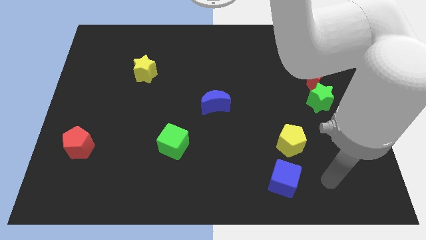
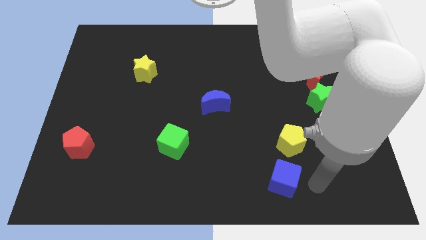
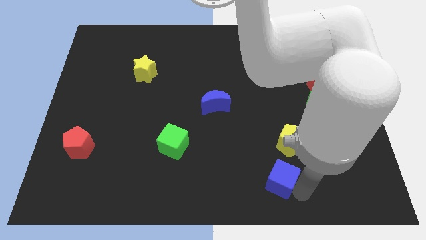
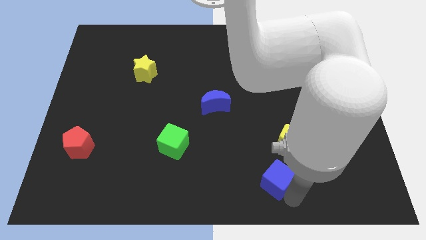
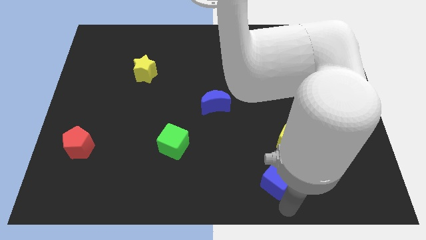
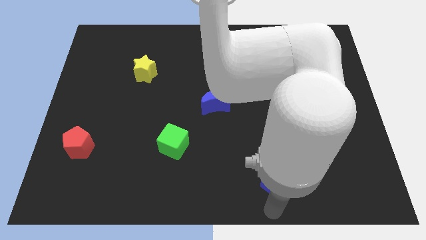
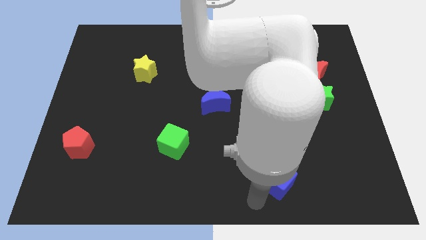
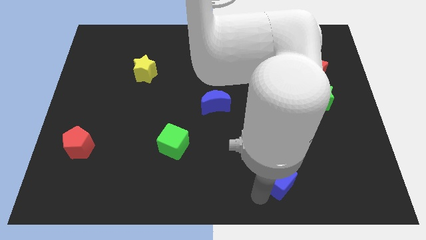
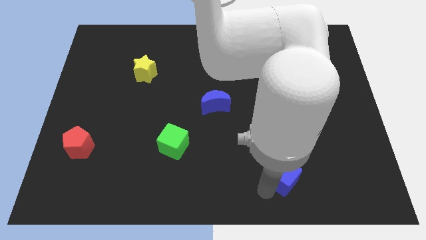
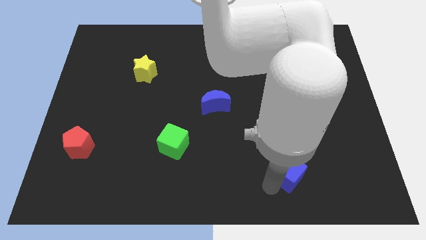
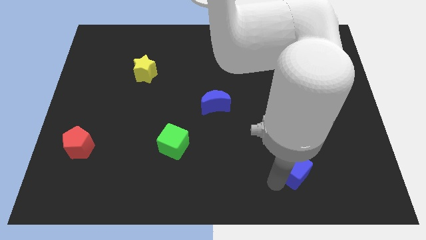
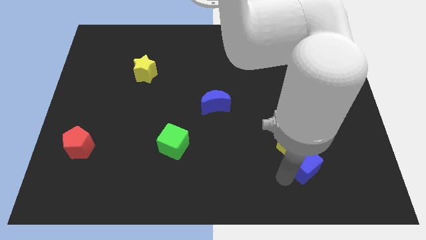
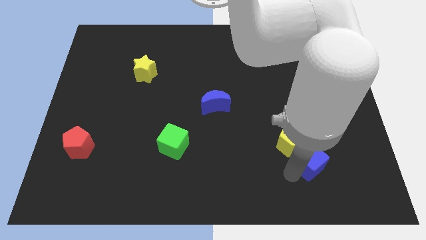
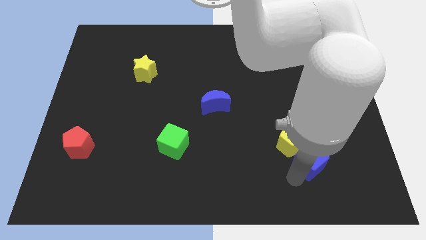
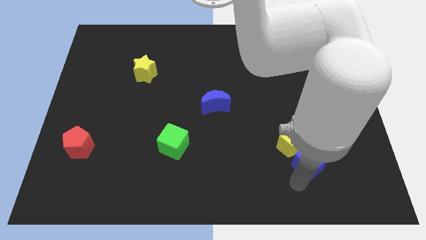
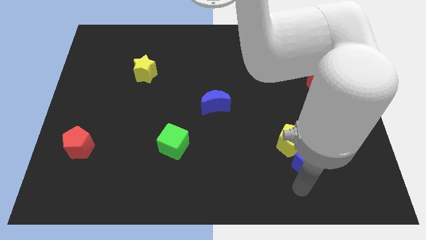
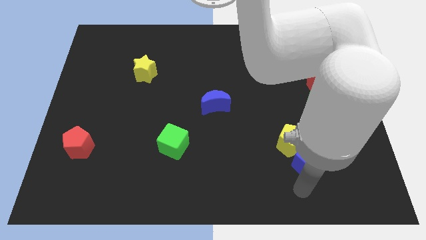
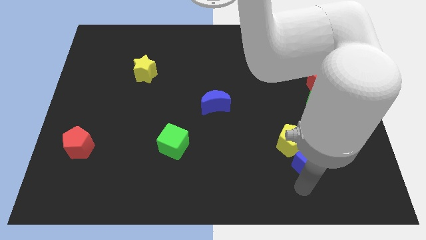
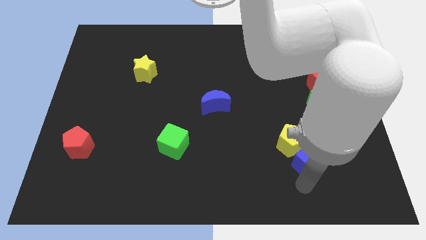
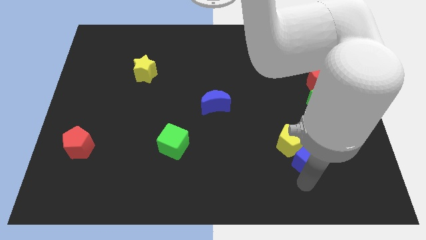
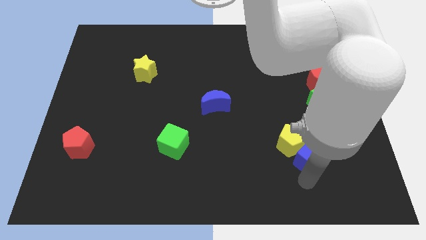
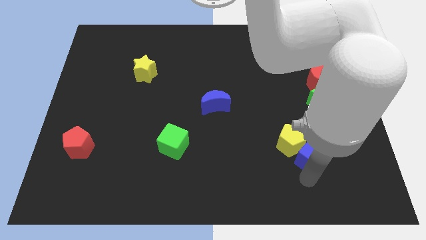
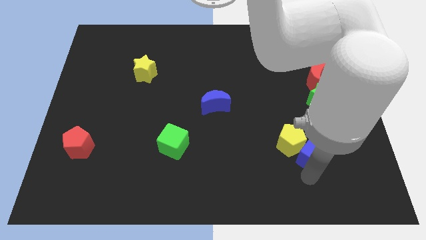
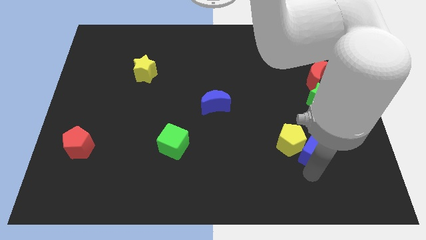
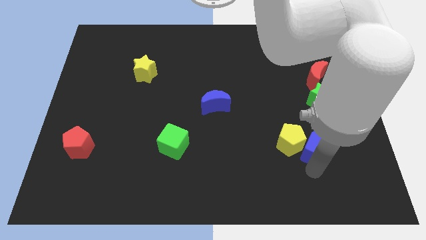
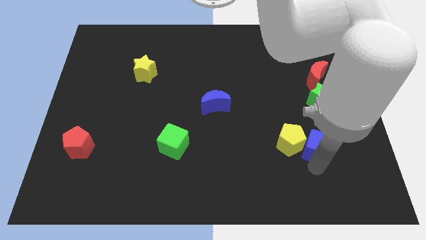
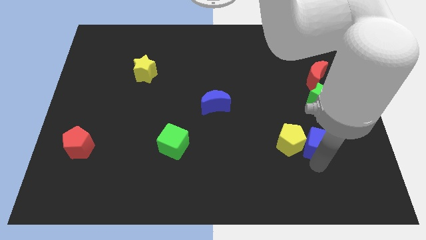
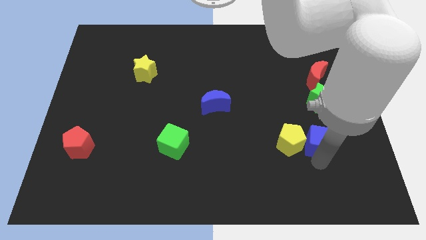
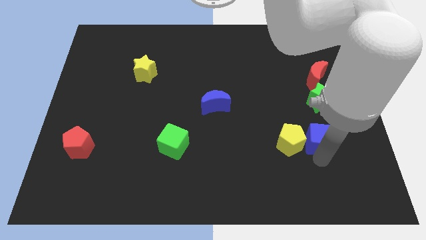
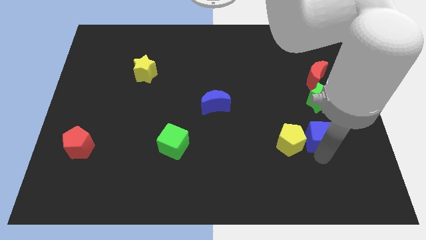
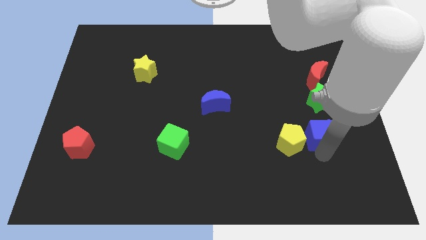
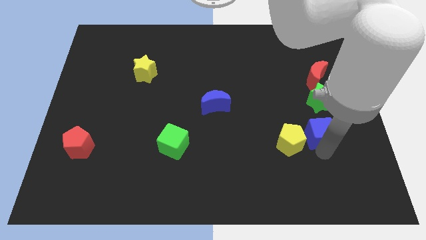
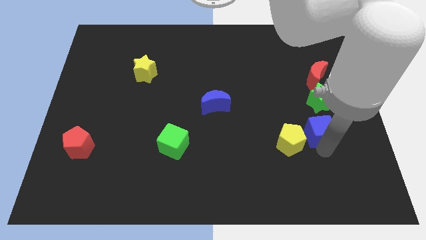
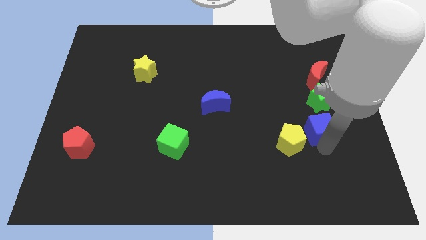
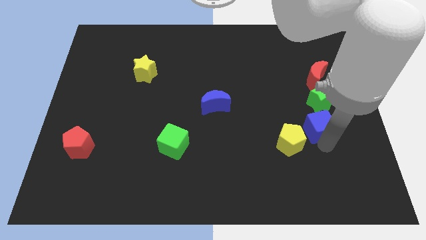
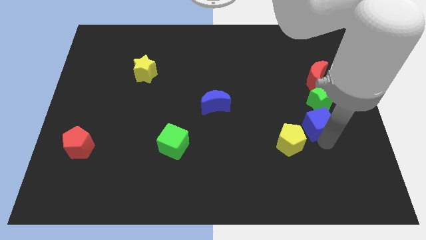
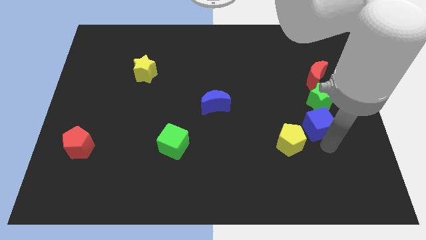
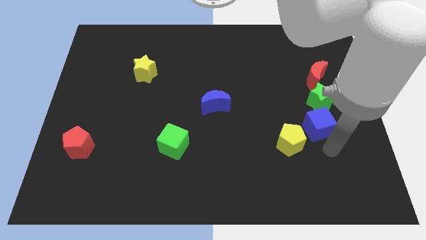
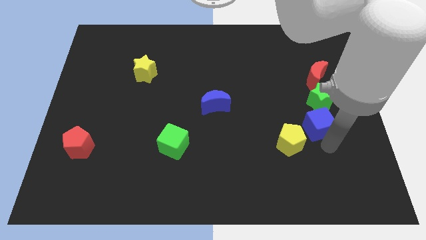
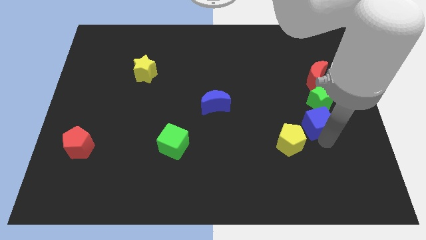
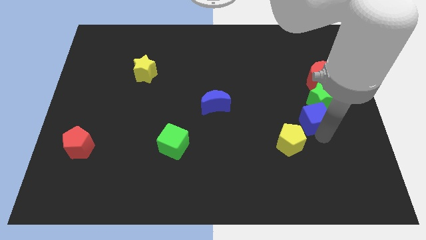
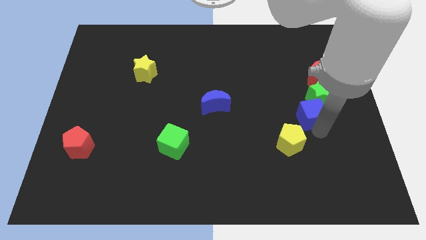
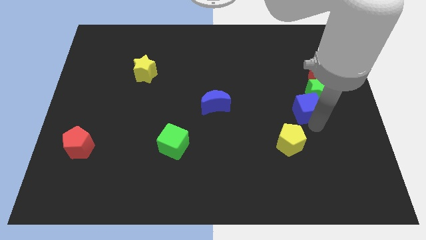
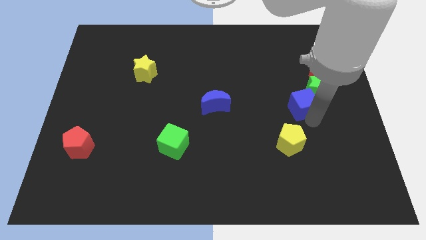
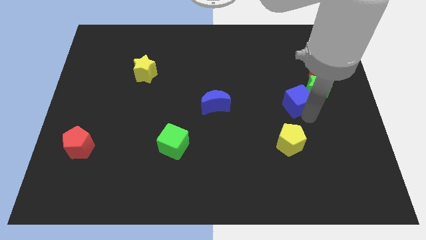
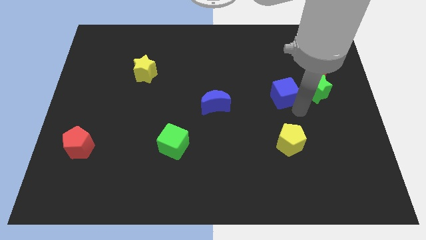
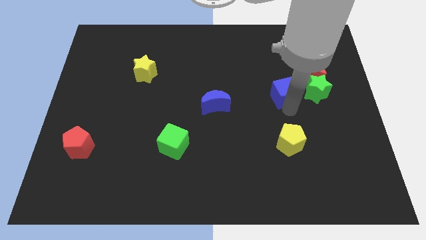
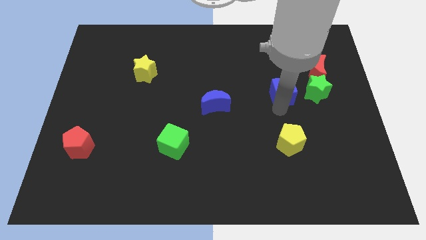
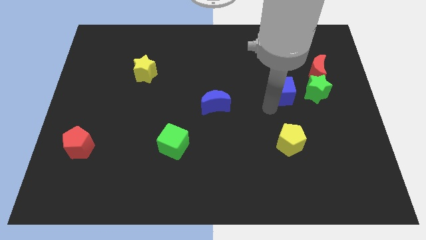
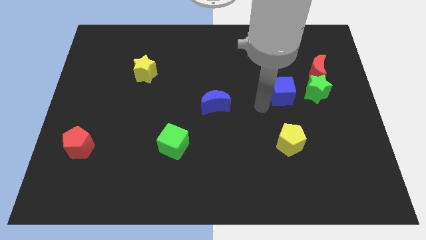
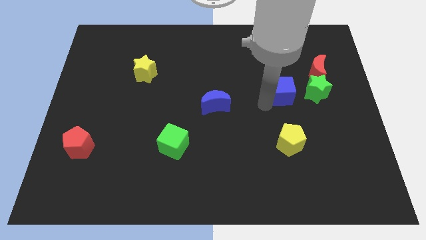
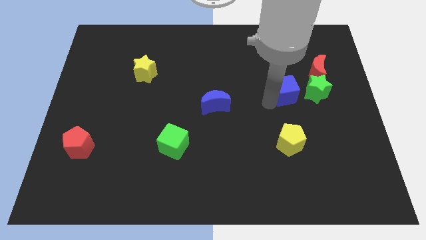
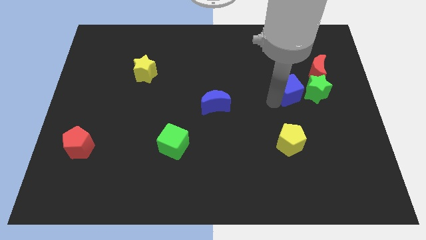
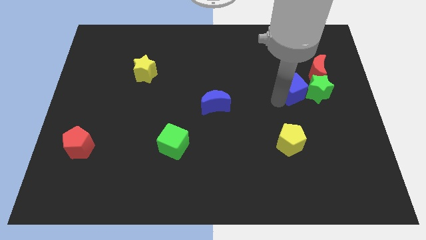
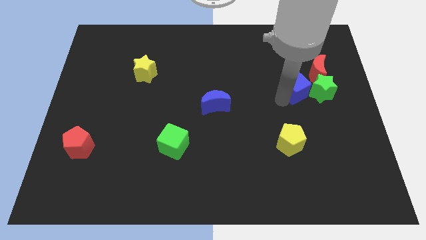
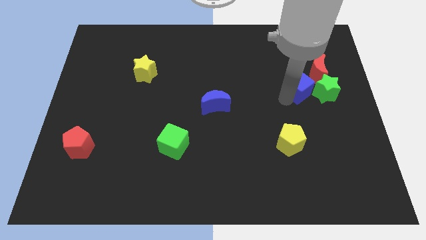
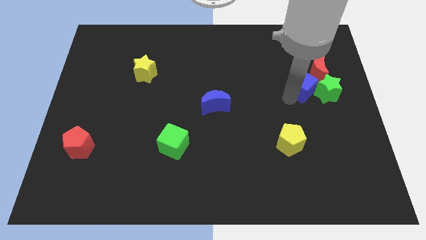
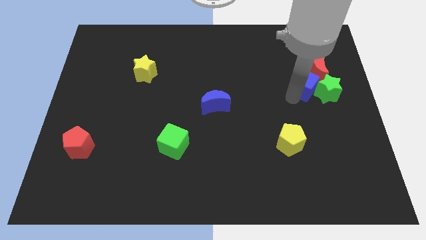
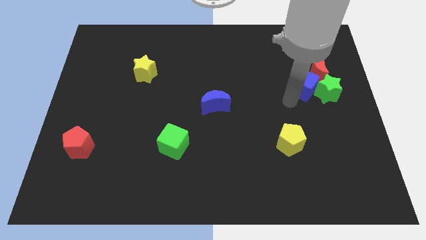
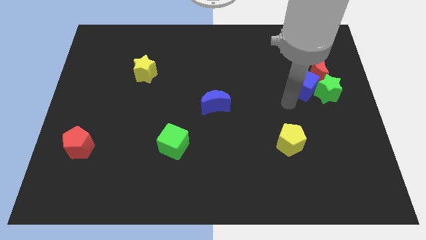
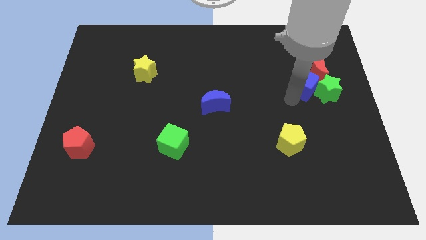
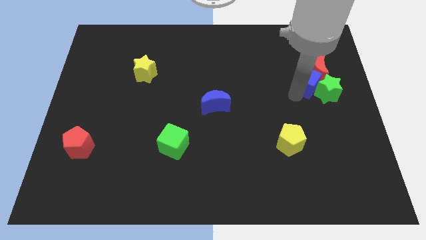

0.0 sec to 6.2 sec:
slide the blue cube to the red moon

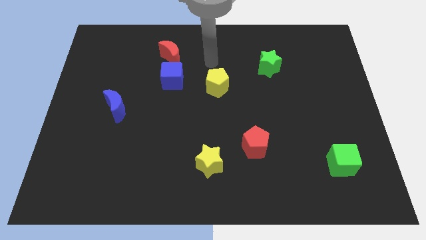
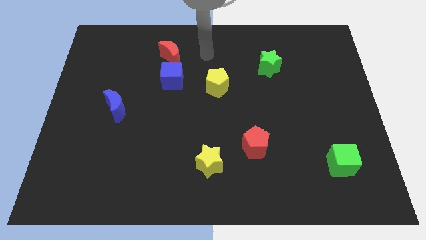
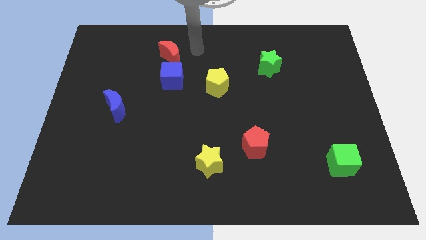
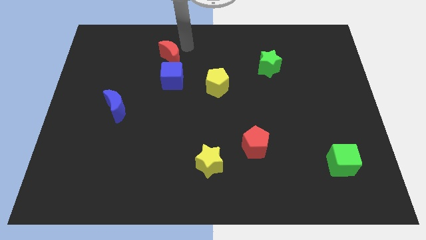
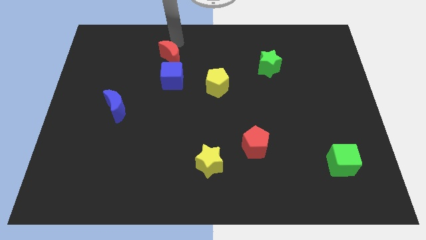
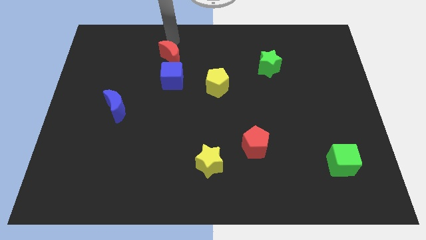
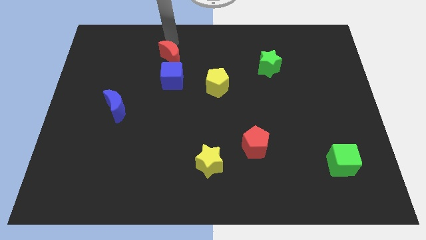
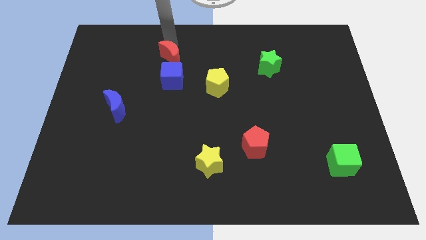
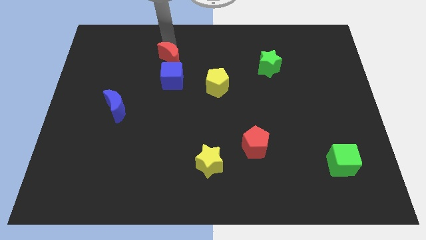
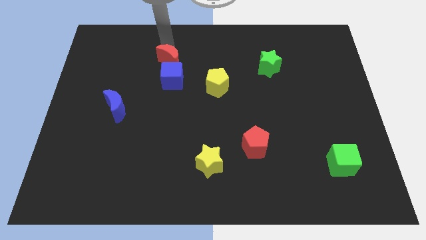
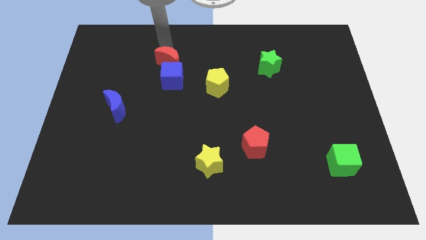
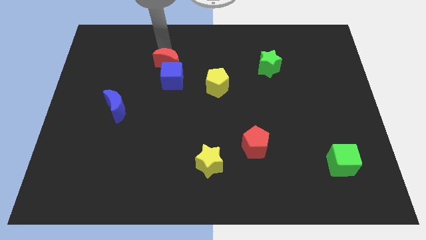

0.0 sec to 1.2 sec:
put the red moon next to the blue cube
